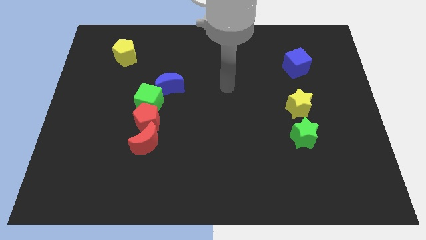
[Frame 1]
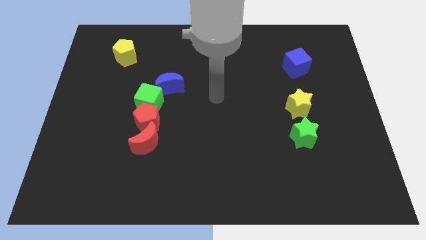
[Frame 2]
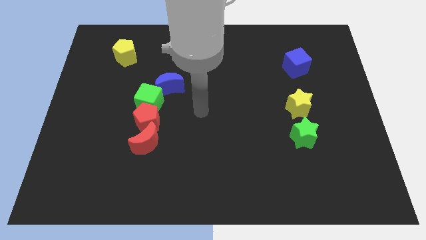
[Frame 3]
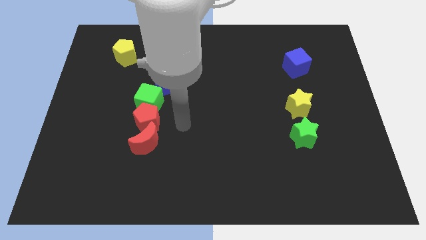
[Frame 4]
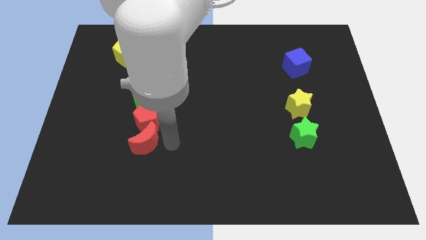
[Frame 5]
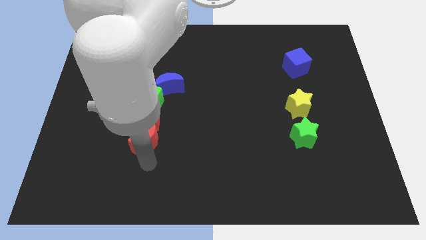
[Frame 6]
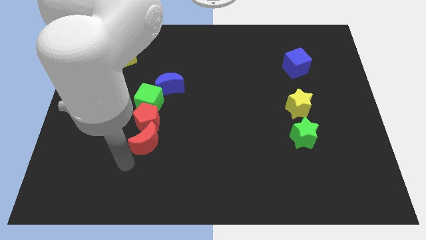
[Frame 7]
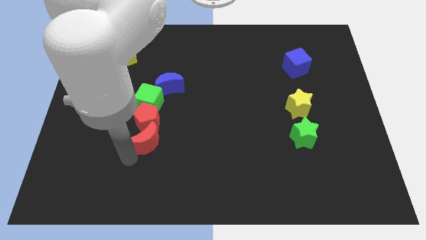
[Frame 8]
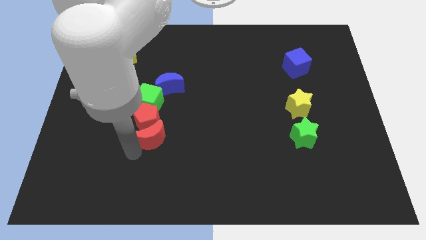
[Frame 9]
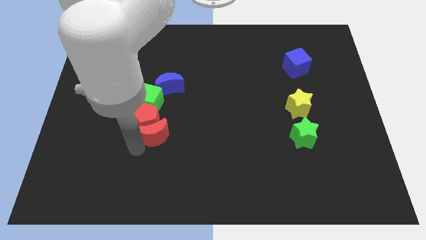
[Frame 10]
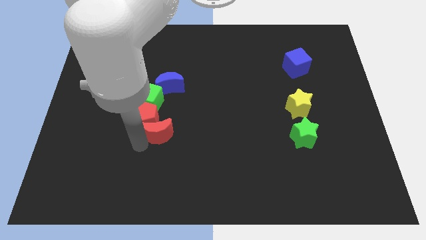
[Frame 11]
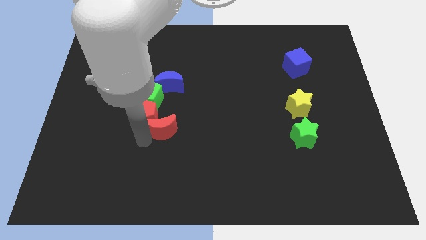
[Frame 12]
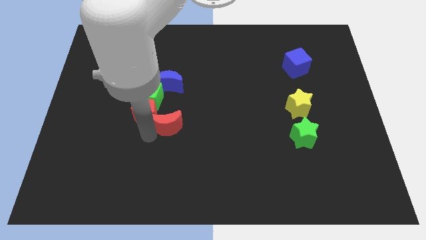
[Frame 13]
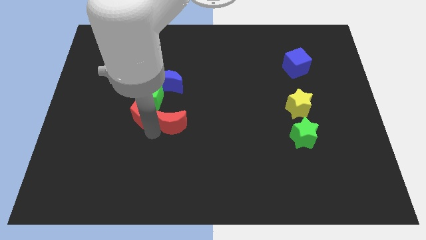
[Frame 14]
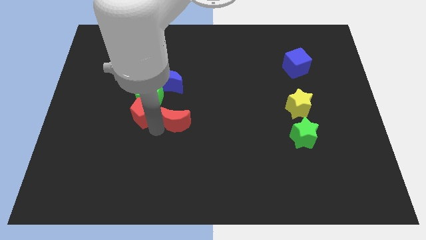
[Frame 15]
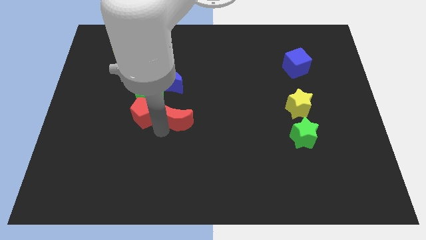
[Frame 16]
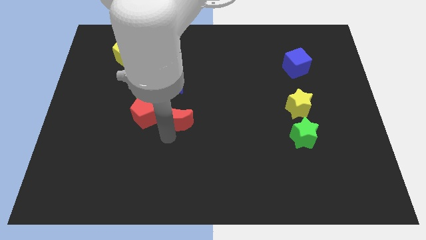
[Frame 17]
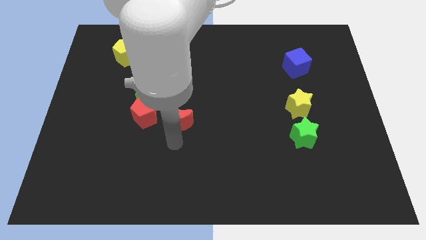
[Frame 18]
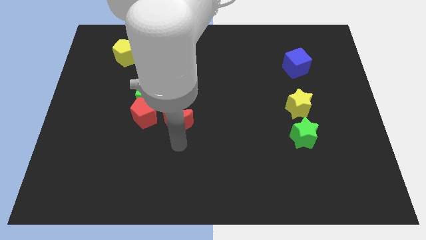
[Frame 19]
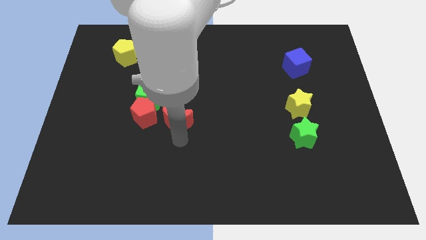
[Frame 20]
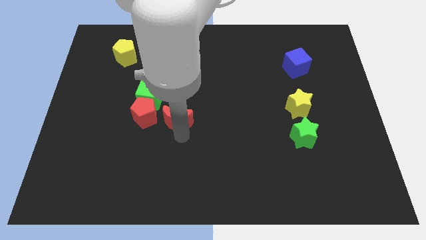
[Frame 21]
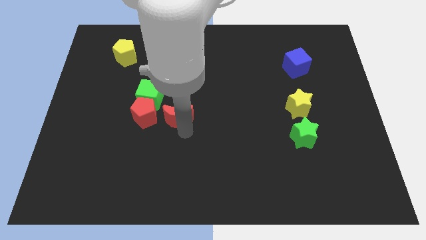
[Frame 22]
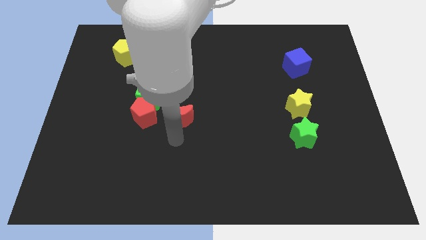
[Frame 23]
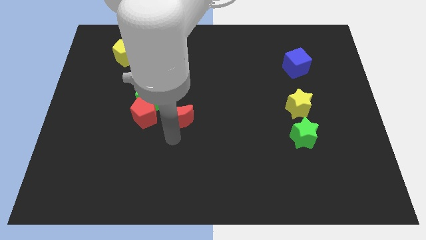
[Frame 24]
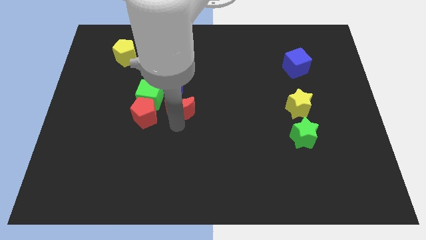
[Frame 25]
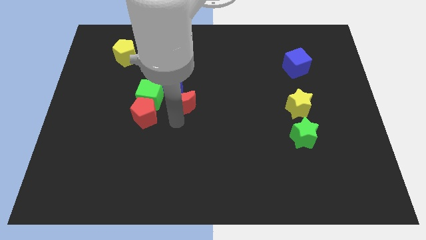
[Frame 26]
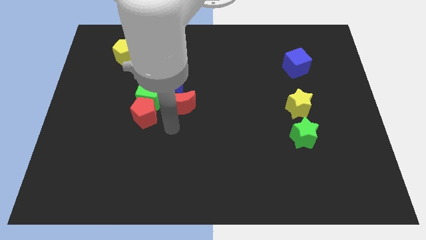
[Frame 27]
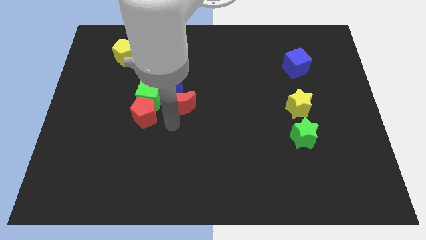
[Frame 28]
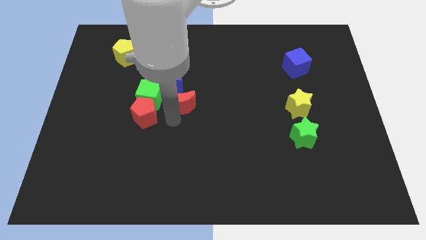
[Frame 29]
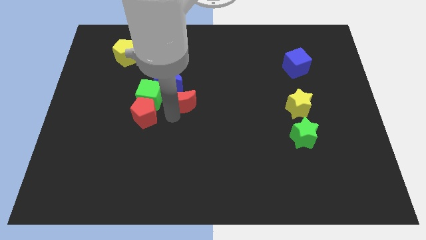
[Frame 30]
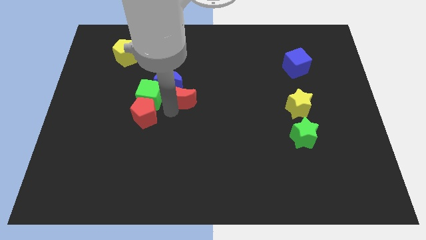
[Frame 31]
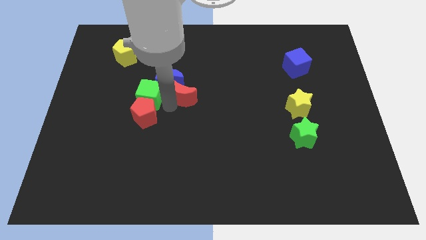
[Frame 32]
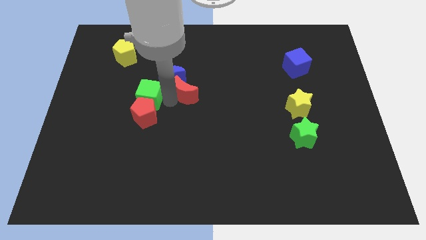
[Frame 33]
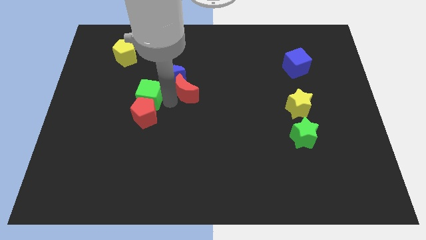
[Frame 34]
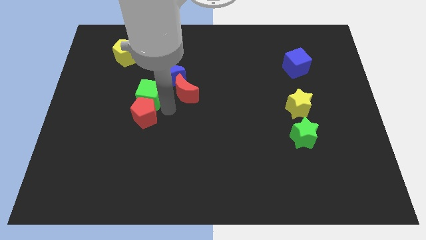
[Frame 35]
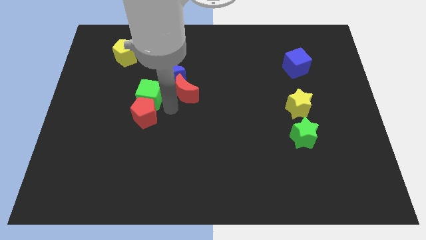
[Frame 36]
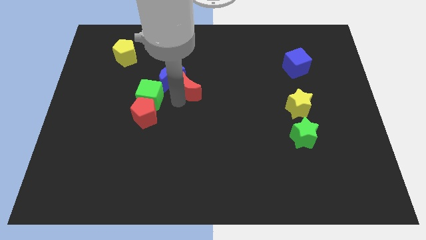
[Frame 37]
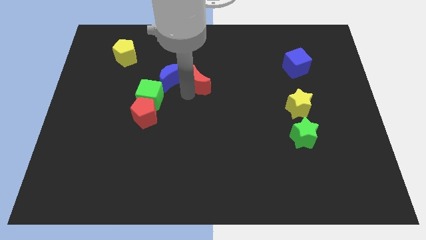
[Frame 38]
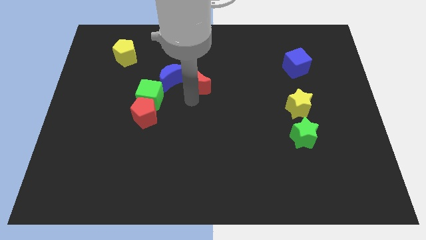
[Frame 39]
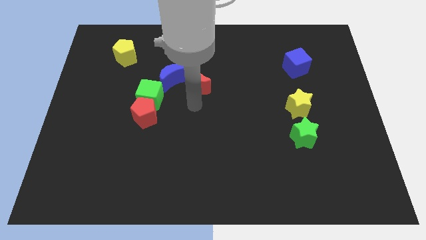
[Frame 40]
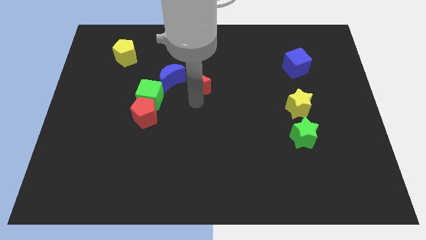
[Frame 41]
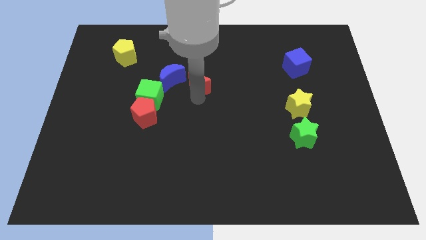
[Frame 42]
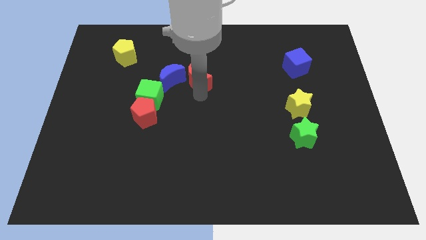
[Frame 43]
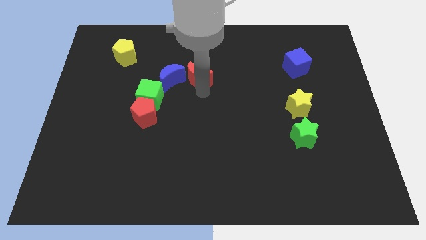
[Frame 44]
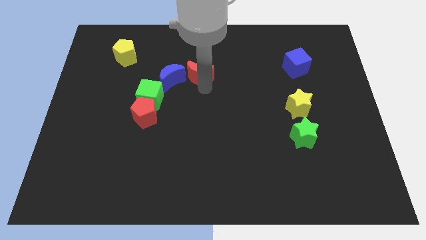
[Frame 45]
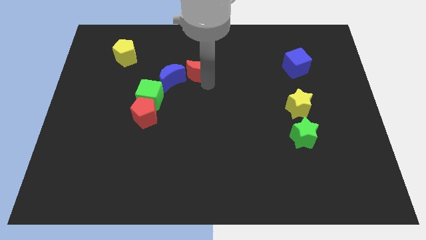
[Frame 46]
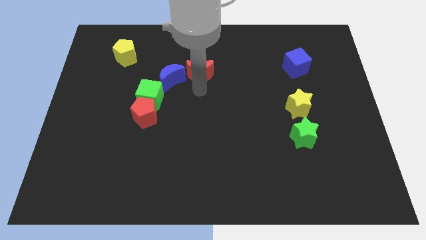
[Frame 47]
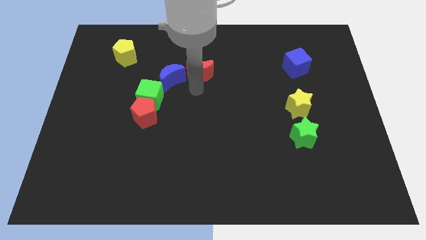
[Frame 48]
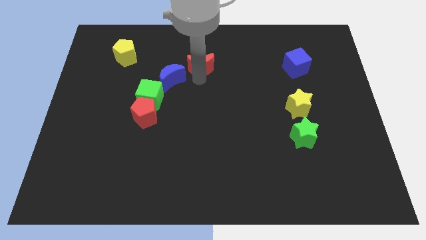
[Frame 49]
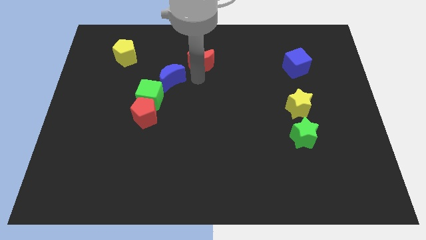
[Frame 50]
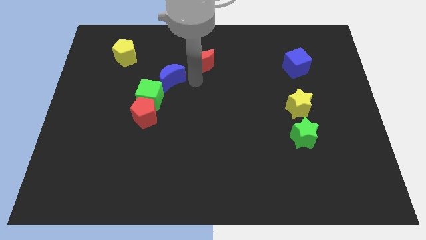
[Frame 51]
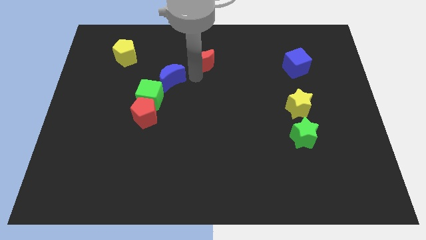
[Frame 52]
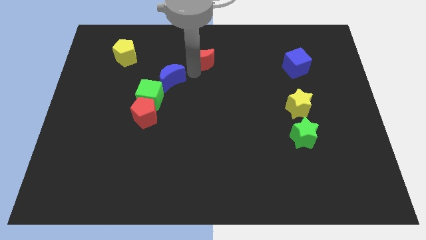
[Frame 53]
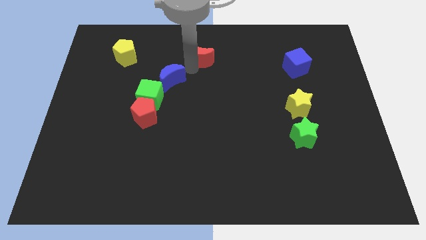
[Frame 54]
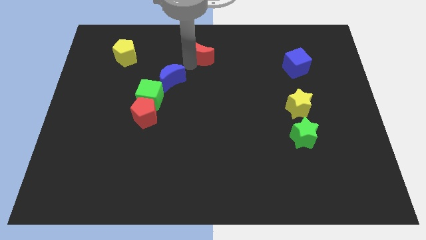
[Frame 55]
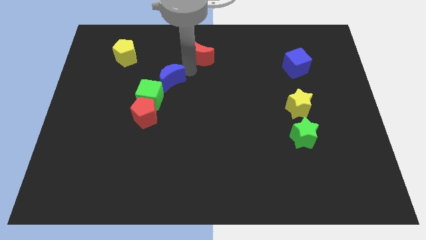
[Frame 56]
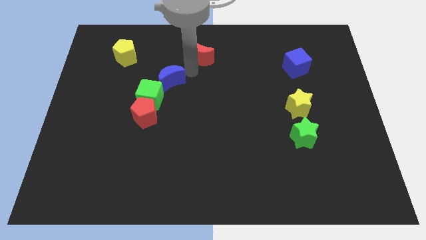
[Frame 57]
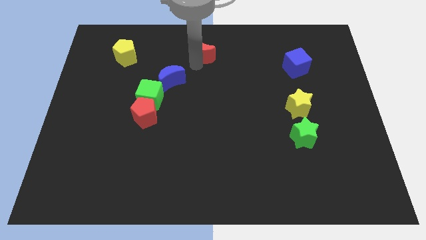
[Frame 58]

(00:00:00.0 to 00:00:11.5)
slide the red moon to the top side

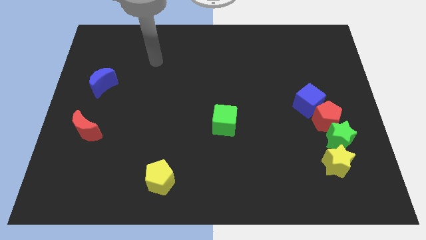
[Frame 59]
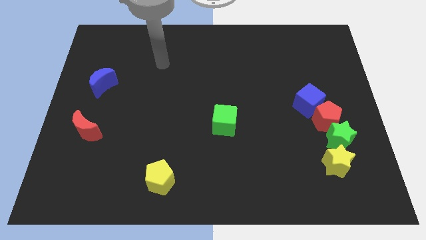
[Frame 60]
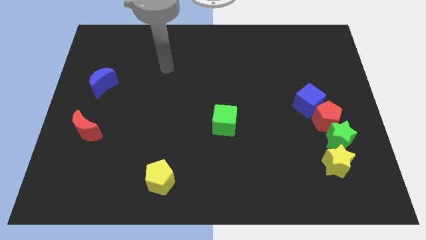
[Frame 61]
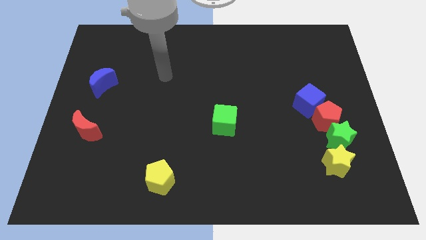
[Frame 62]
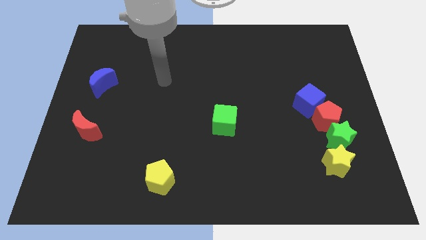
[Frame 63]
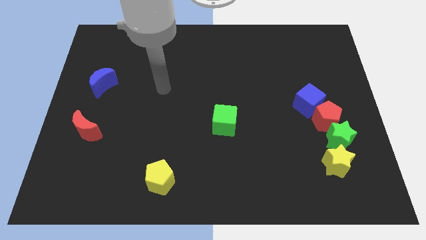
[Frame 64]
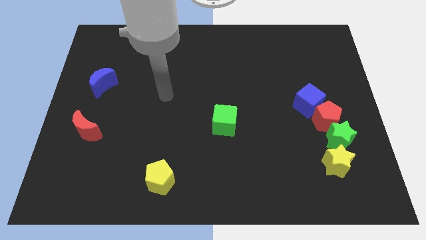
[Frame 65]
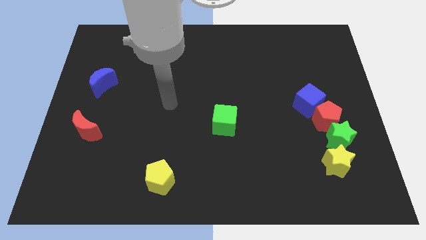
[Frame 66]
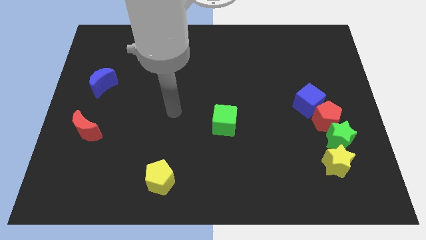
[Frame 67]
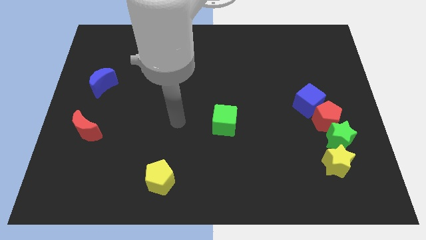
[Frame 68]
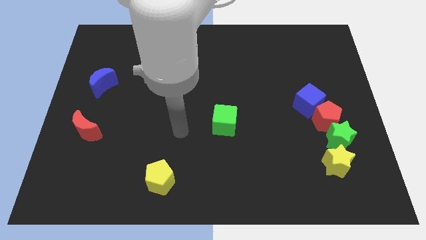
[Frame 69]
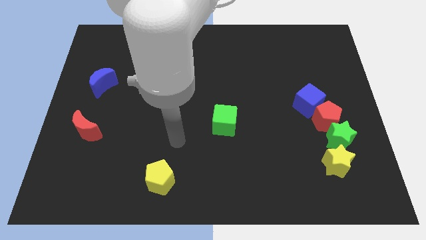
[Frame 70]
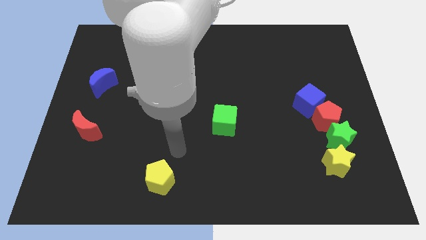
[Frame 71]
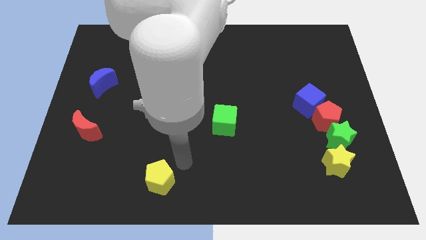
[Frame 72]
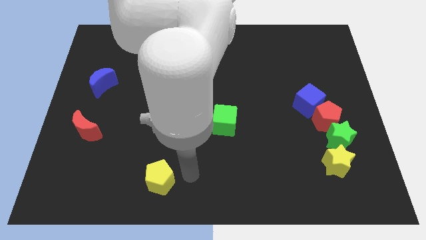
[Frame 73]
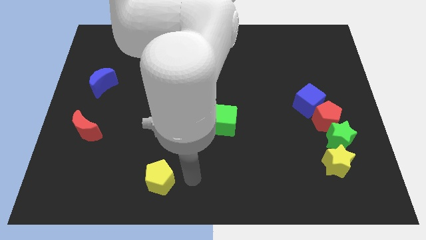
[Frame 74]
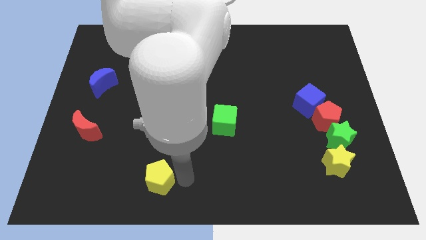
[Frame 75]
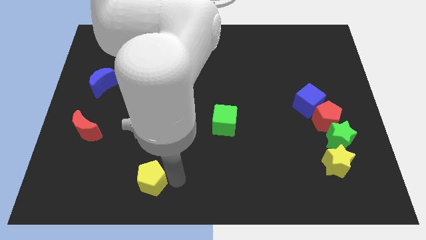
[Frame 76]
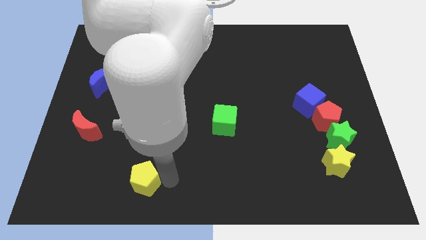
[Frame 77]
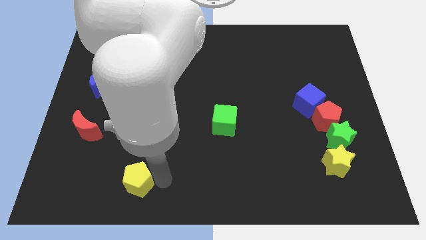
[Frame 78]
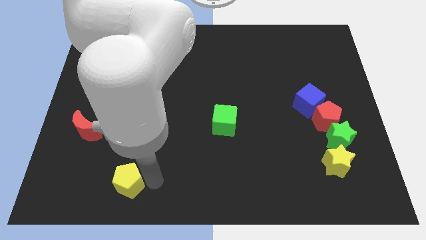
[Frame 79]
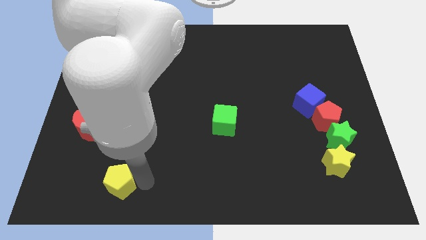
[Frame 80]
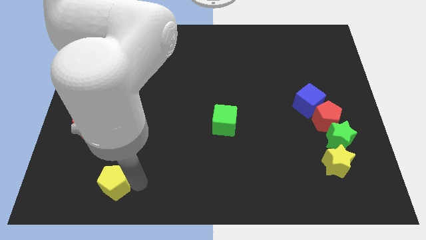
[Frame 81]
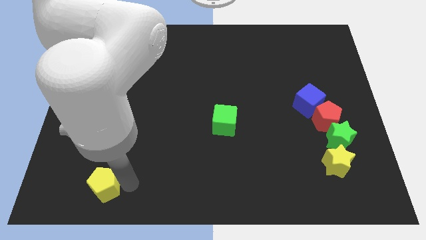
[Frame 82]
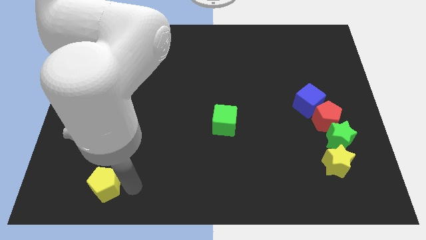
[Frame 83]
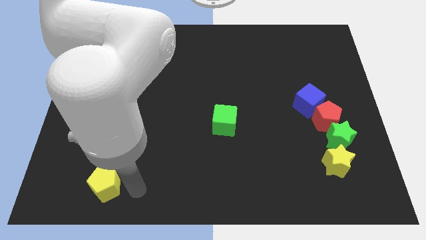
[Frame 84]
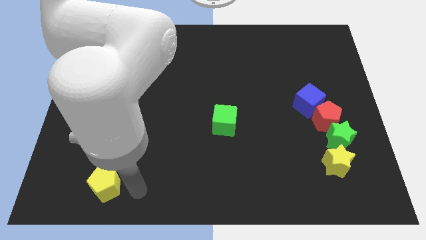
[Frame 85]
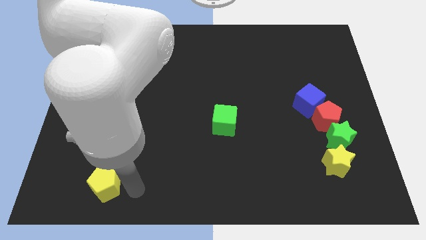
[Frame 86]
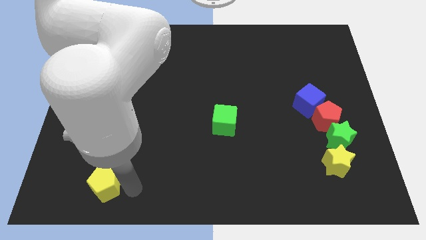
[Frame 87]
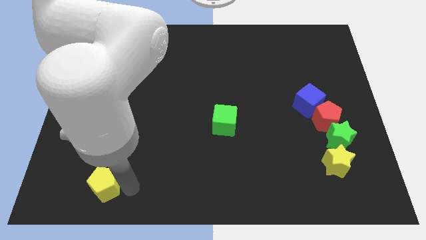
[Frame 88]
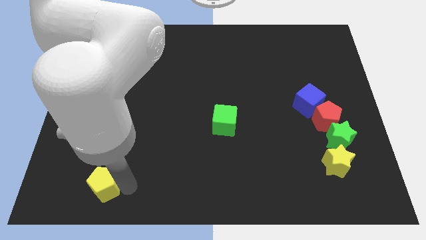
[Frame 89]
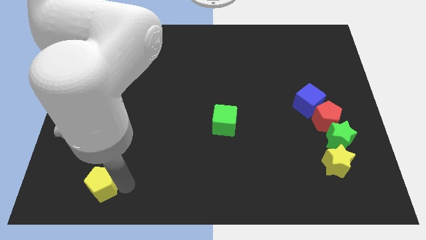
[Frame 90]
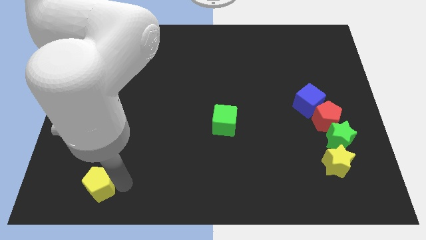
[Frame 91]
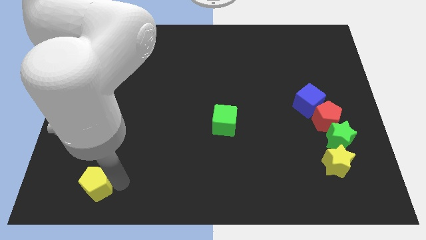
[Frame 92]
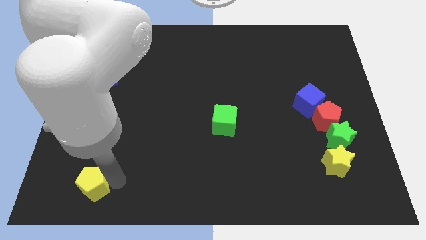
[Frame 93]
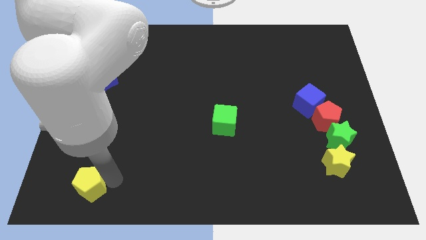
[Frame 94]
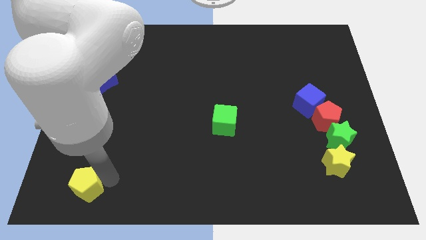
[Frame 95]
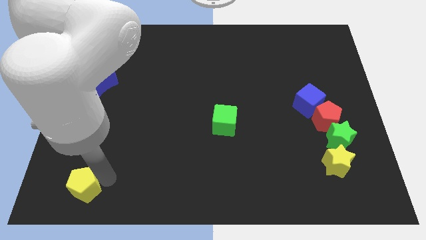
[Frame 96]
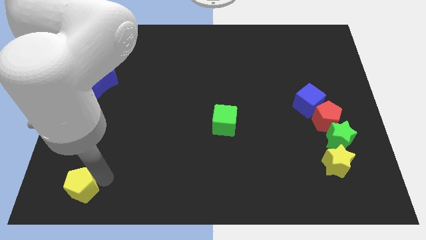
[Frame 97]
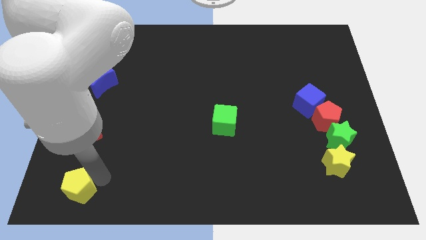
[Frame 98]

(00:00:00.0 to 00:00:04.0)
slide the yellow pentagon to the bottom left
